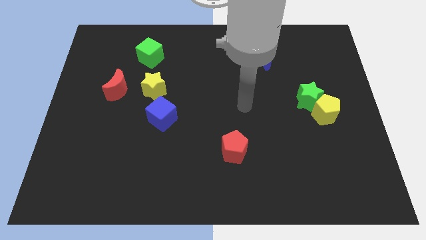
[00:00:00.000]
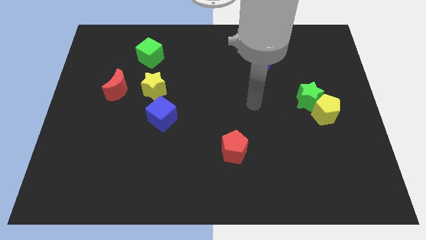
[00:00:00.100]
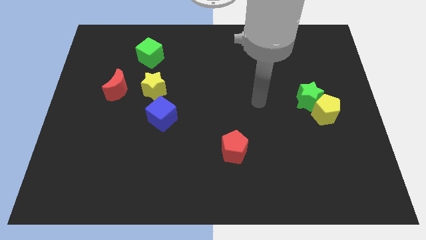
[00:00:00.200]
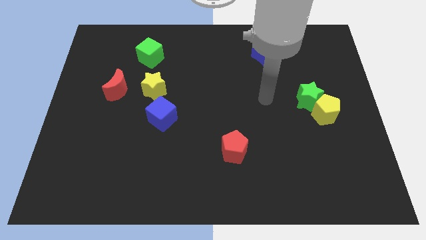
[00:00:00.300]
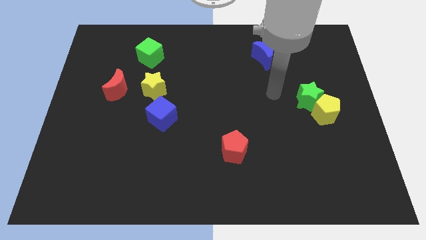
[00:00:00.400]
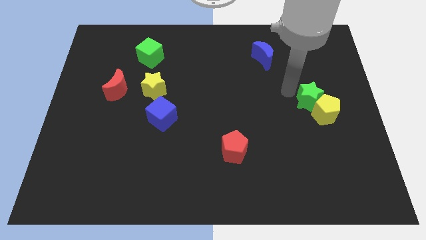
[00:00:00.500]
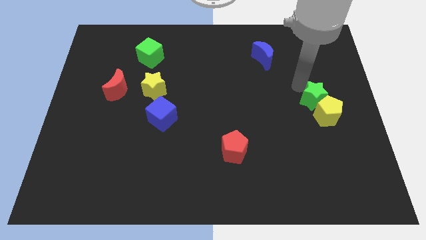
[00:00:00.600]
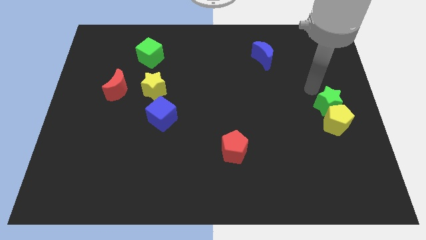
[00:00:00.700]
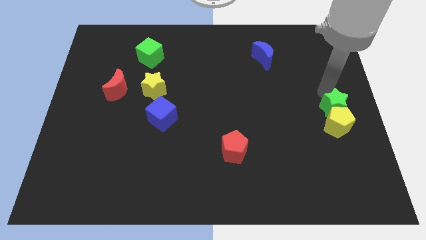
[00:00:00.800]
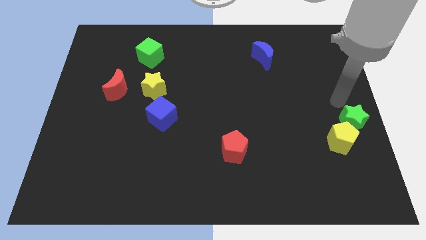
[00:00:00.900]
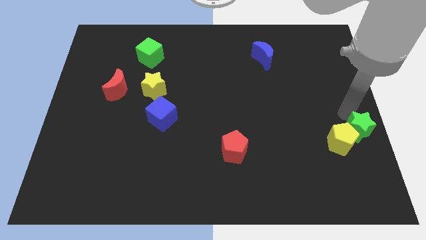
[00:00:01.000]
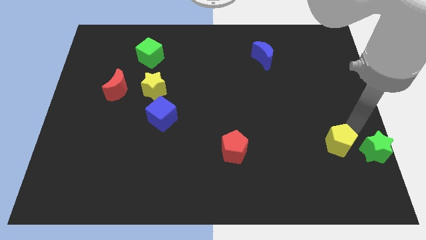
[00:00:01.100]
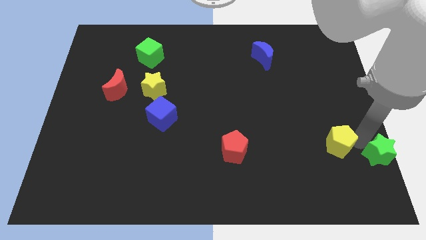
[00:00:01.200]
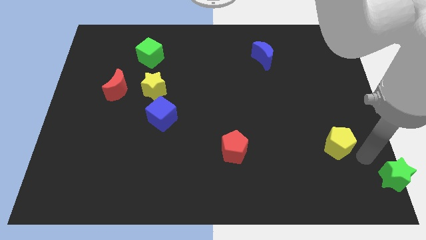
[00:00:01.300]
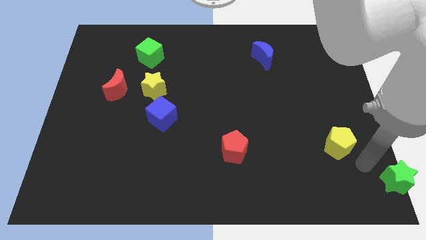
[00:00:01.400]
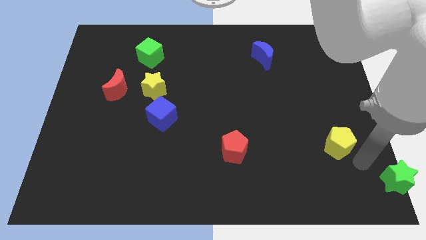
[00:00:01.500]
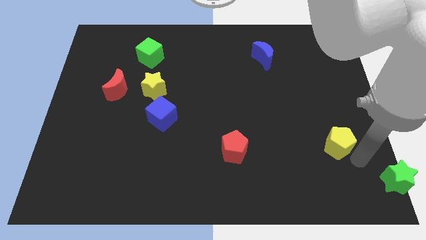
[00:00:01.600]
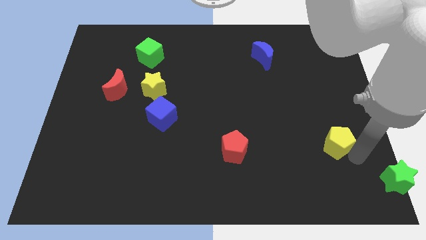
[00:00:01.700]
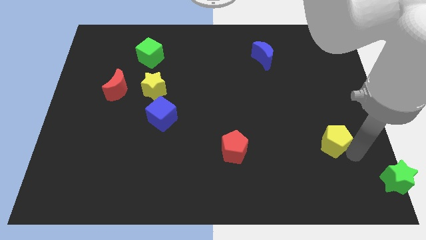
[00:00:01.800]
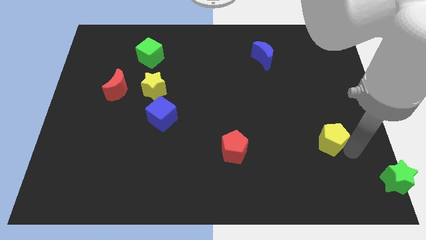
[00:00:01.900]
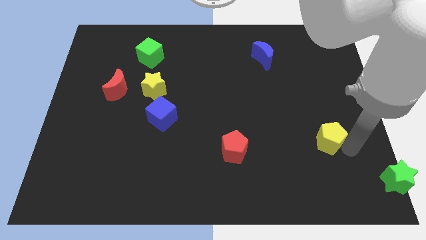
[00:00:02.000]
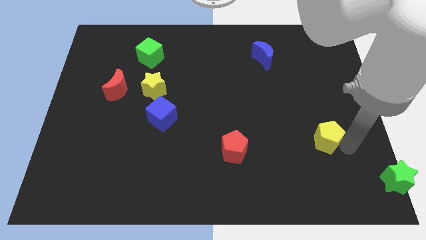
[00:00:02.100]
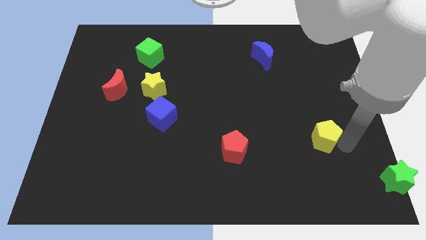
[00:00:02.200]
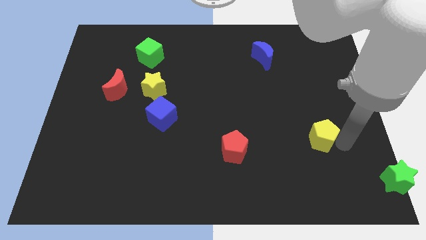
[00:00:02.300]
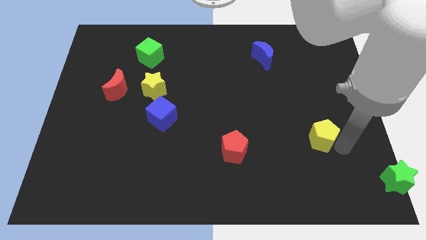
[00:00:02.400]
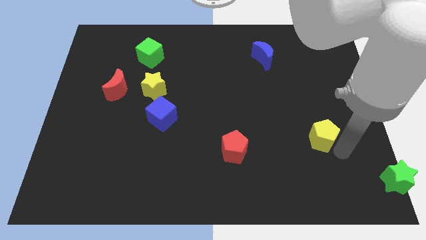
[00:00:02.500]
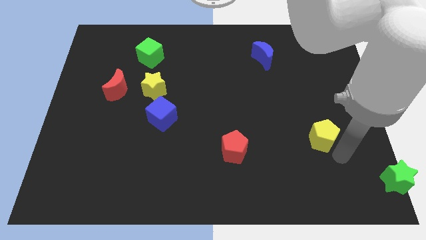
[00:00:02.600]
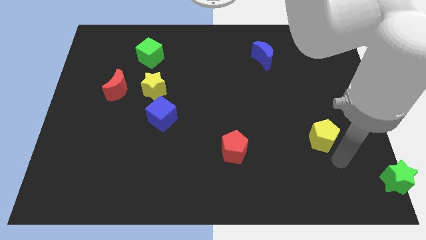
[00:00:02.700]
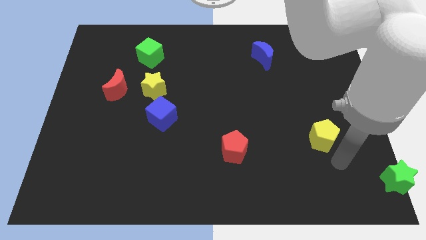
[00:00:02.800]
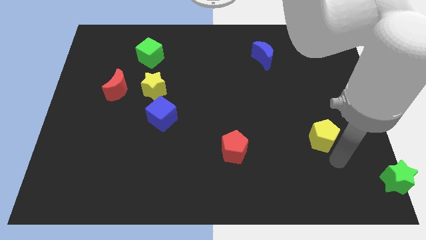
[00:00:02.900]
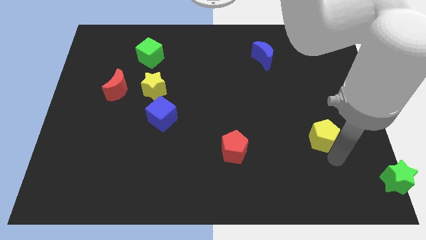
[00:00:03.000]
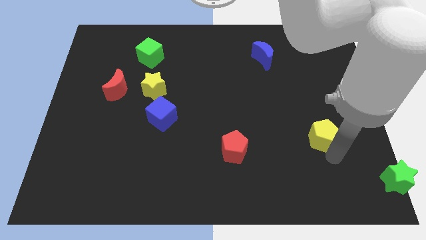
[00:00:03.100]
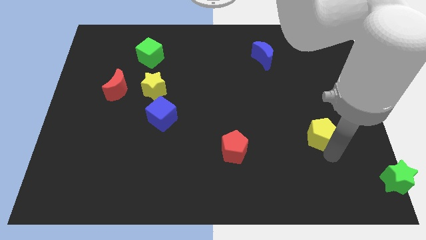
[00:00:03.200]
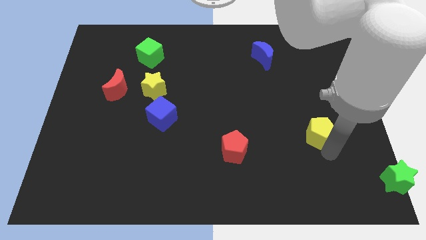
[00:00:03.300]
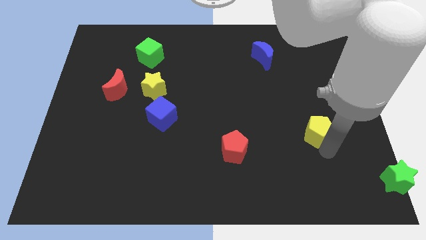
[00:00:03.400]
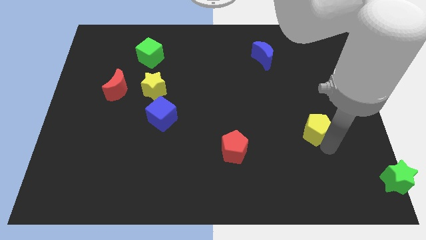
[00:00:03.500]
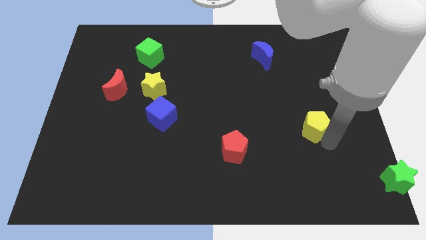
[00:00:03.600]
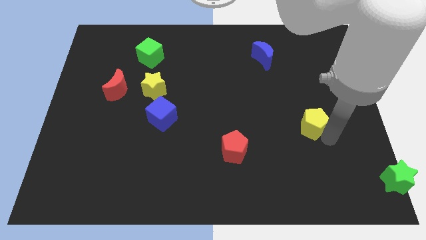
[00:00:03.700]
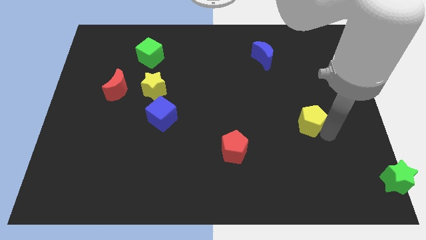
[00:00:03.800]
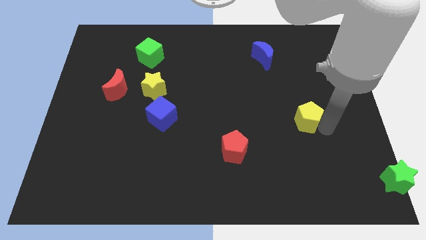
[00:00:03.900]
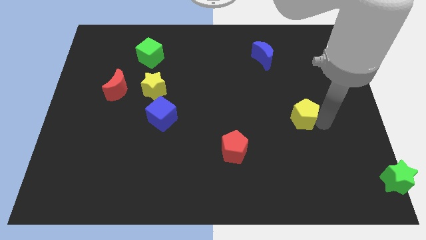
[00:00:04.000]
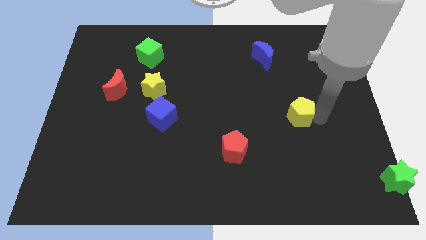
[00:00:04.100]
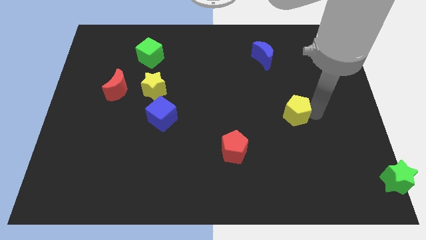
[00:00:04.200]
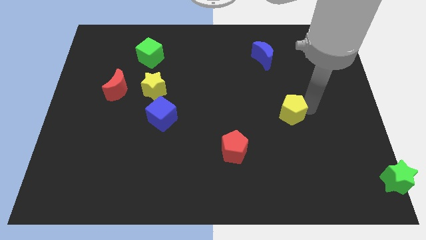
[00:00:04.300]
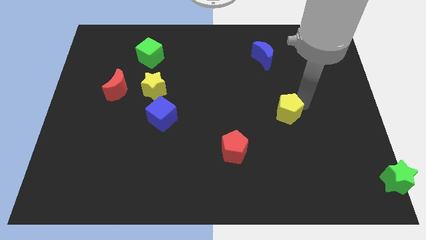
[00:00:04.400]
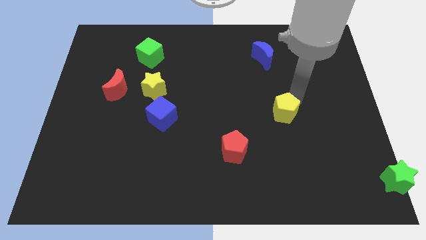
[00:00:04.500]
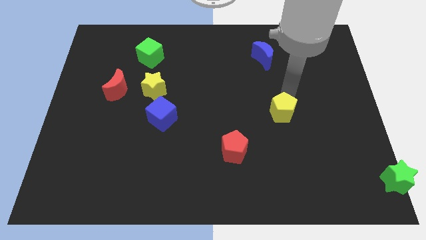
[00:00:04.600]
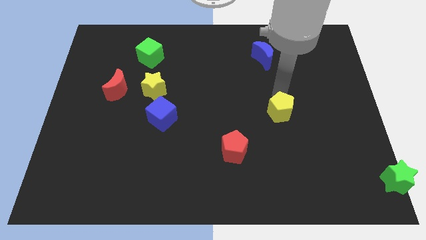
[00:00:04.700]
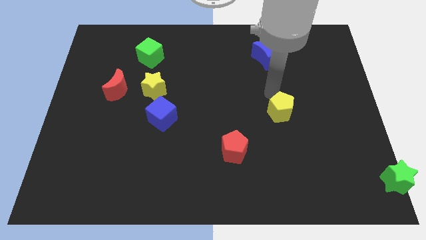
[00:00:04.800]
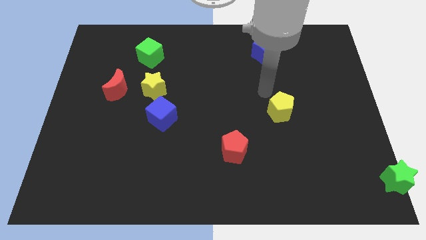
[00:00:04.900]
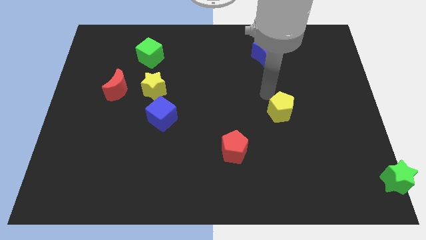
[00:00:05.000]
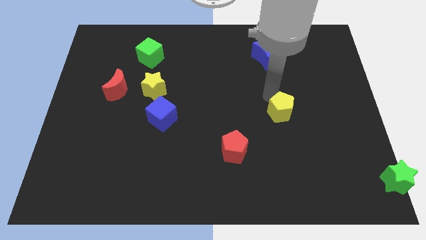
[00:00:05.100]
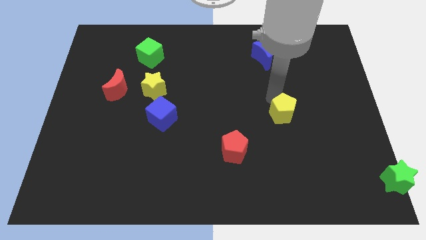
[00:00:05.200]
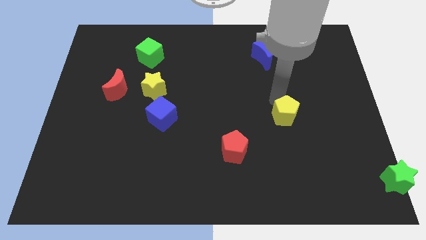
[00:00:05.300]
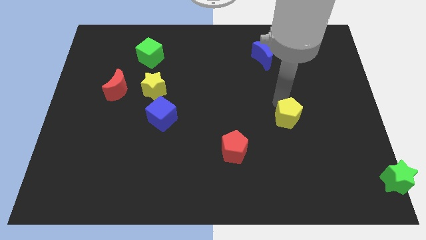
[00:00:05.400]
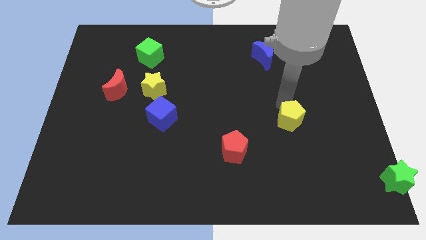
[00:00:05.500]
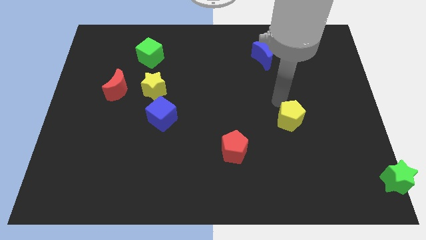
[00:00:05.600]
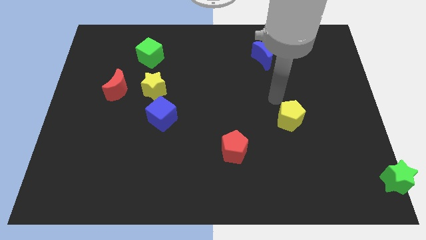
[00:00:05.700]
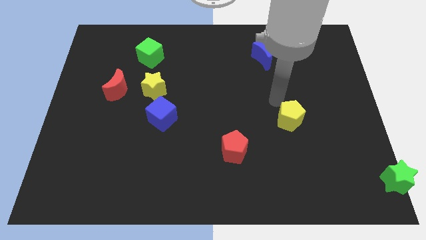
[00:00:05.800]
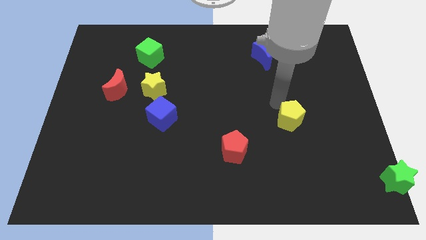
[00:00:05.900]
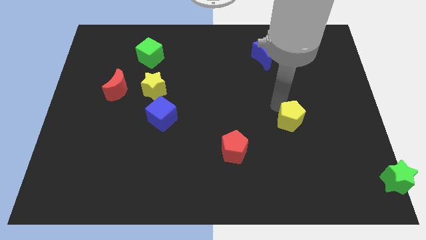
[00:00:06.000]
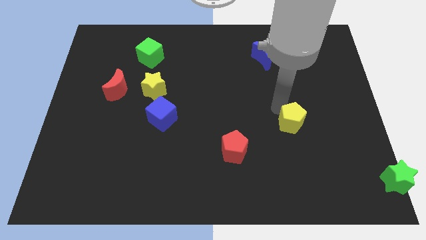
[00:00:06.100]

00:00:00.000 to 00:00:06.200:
slightly push the yellow pentagon diagonally down and left

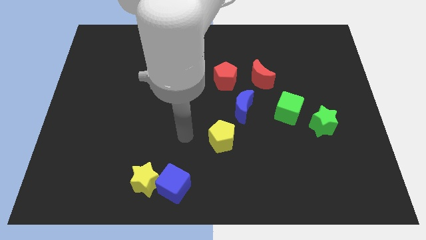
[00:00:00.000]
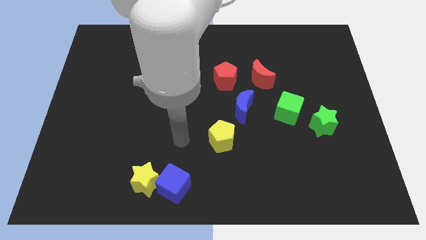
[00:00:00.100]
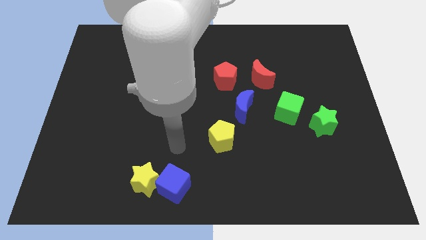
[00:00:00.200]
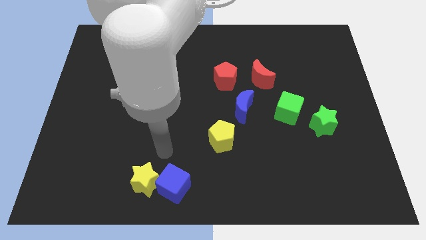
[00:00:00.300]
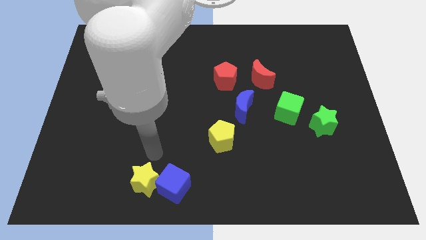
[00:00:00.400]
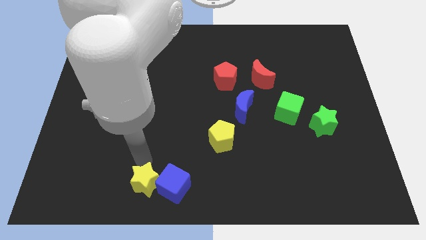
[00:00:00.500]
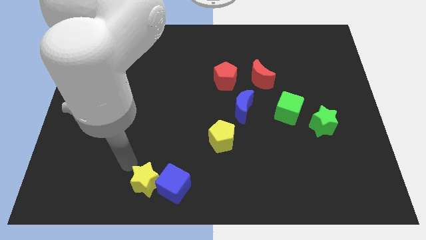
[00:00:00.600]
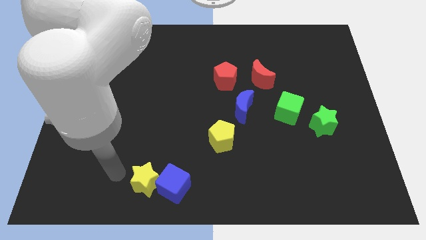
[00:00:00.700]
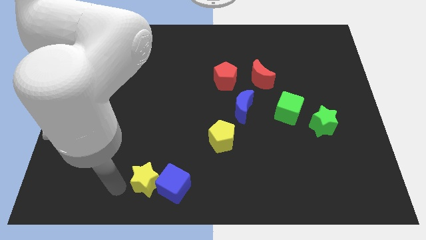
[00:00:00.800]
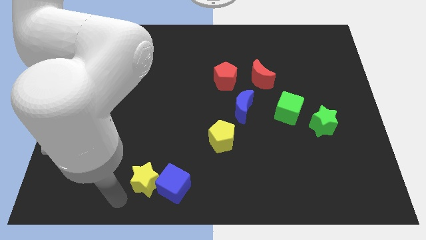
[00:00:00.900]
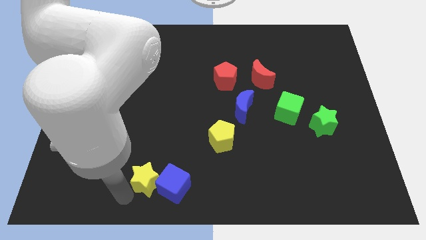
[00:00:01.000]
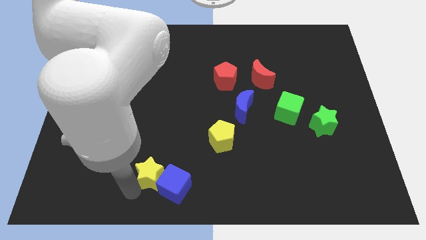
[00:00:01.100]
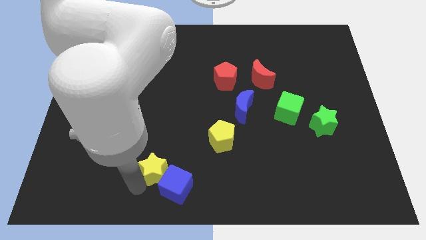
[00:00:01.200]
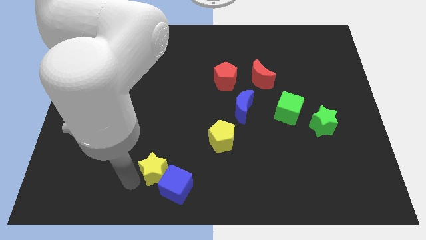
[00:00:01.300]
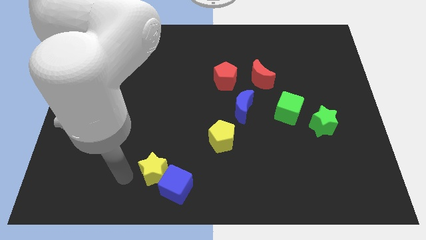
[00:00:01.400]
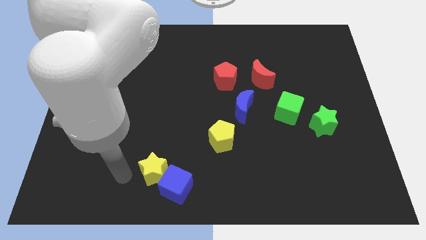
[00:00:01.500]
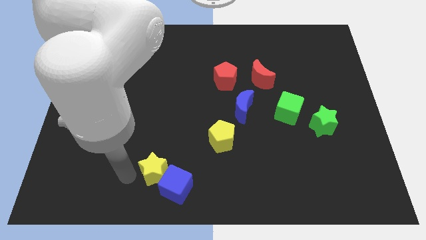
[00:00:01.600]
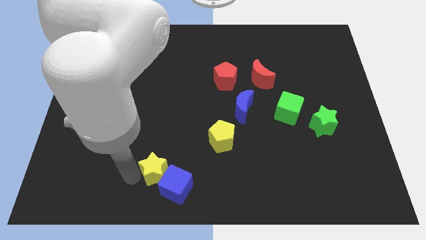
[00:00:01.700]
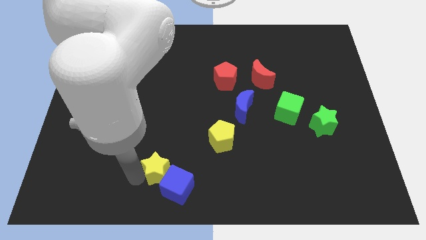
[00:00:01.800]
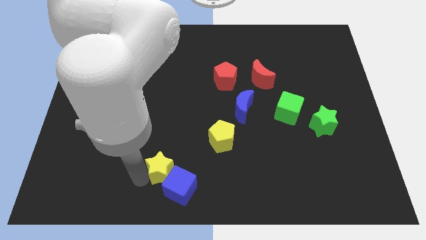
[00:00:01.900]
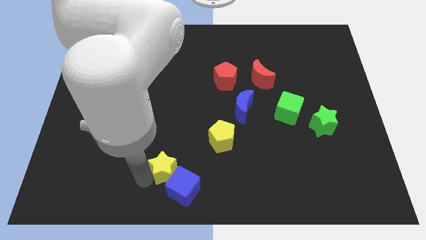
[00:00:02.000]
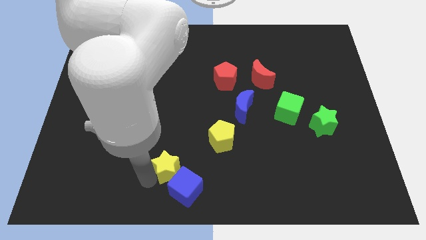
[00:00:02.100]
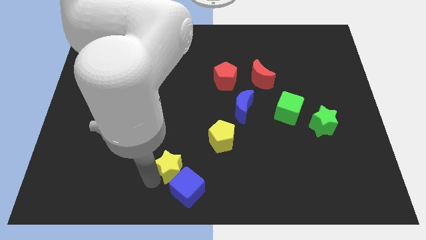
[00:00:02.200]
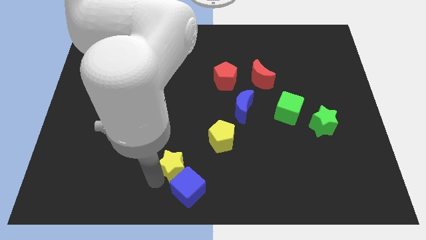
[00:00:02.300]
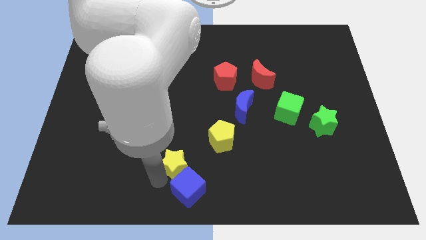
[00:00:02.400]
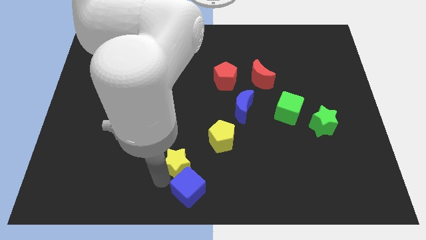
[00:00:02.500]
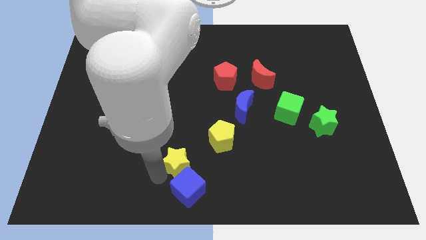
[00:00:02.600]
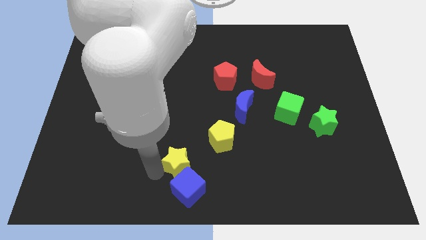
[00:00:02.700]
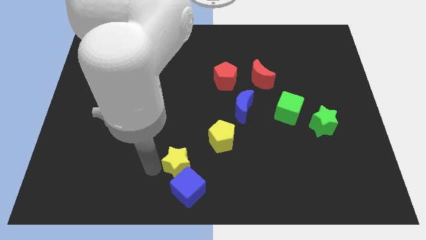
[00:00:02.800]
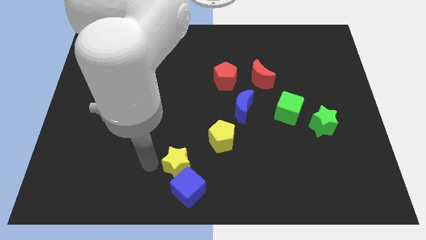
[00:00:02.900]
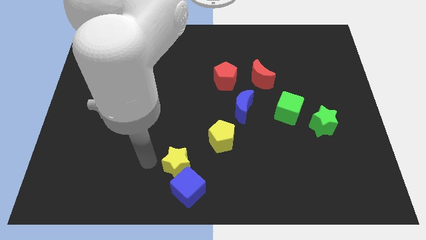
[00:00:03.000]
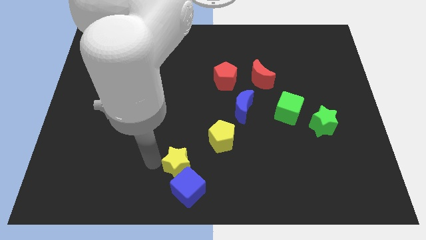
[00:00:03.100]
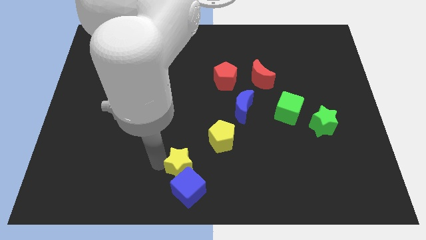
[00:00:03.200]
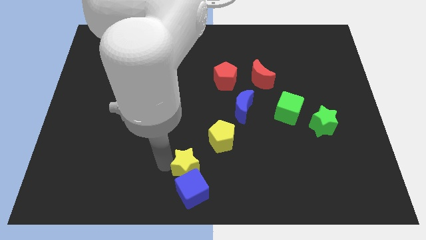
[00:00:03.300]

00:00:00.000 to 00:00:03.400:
slide the yellow star right a little
